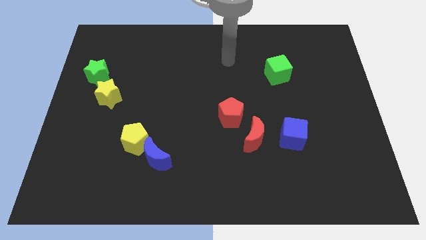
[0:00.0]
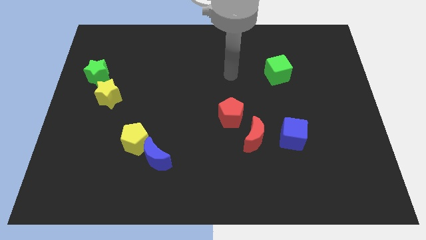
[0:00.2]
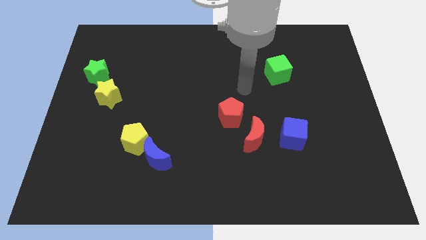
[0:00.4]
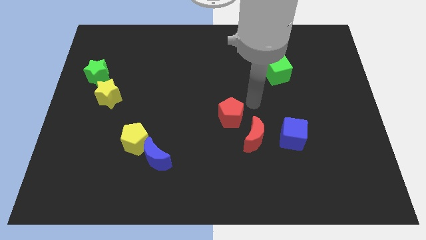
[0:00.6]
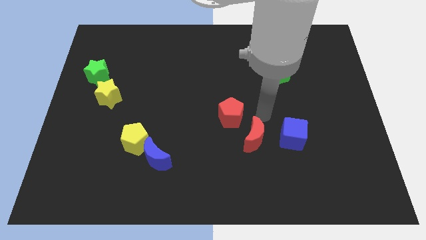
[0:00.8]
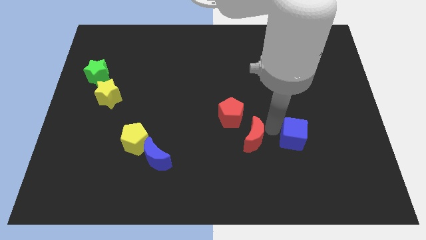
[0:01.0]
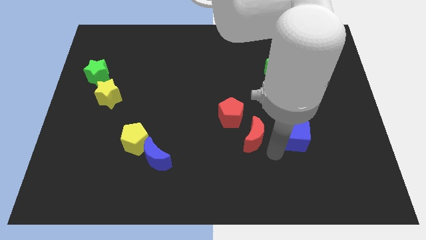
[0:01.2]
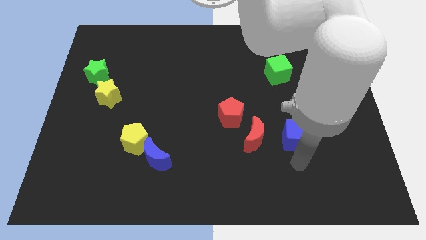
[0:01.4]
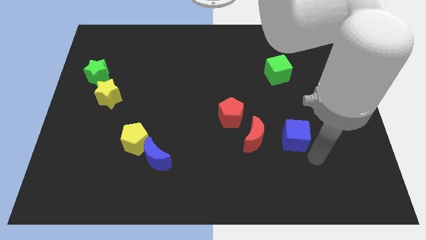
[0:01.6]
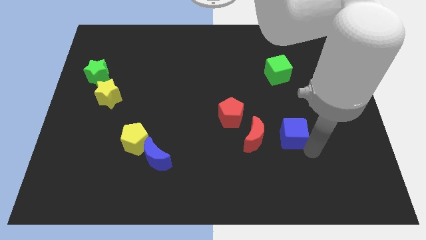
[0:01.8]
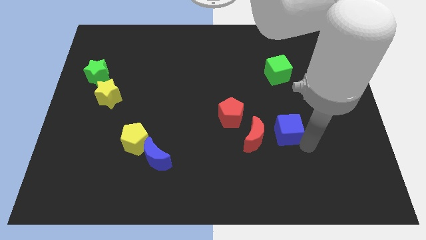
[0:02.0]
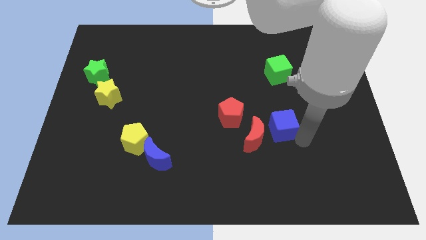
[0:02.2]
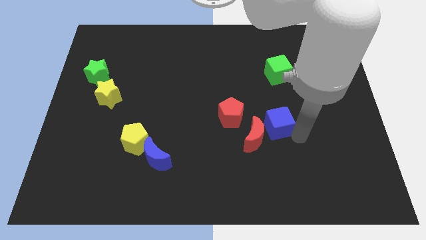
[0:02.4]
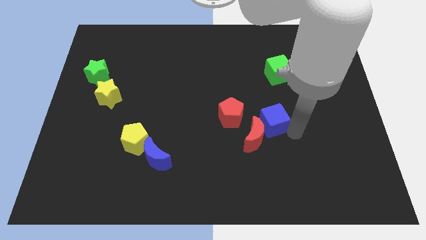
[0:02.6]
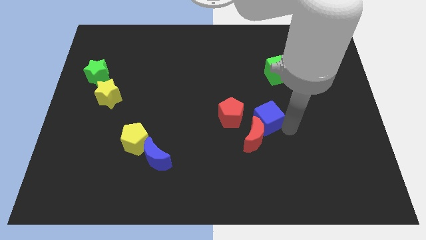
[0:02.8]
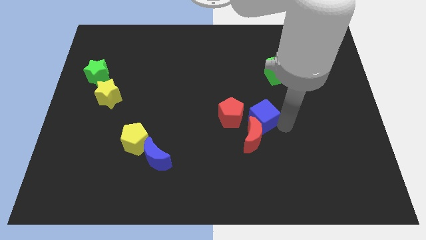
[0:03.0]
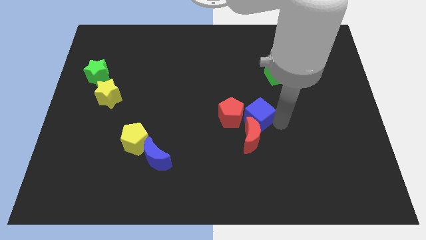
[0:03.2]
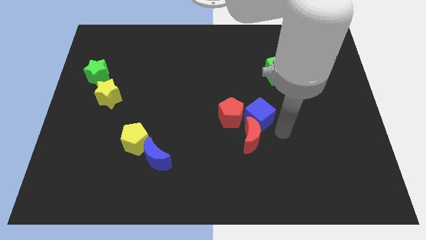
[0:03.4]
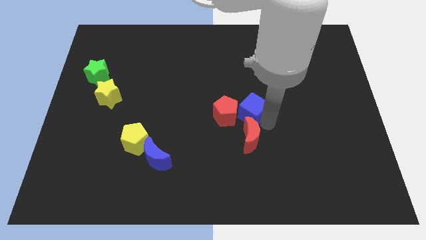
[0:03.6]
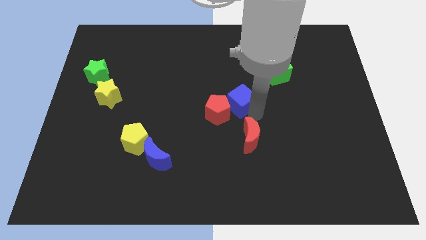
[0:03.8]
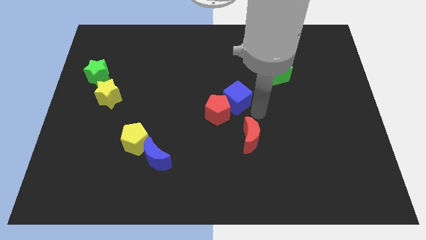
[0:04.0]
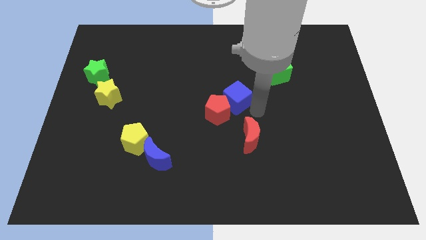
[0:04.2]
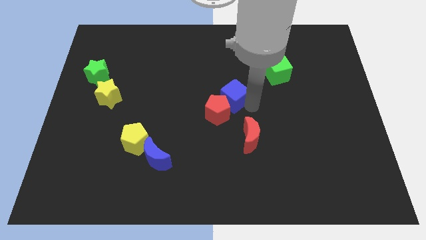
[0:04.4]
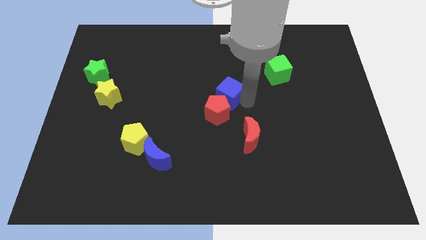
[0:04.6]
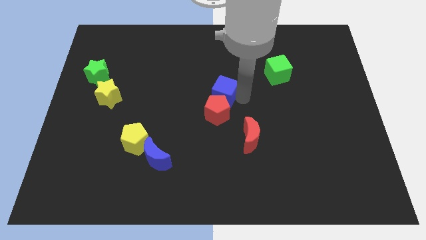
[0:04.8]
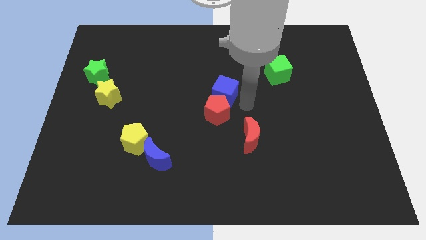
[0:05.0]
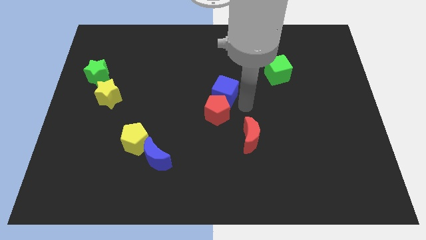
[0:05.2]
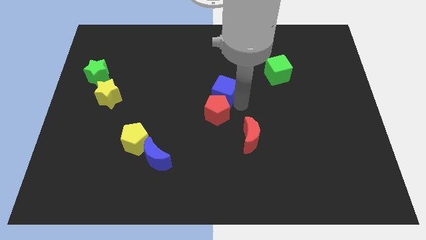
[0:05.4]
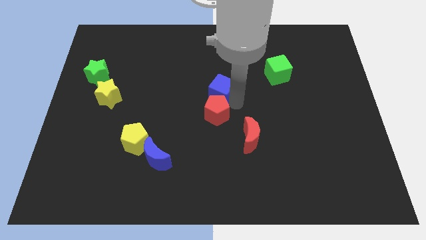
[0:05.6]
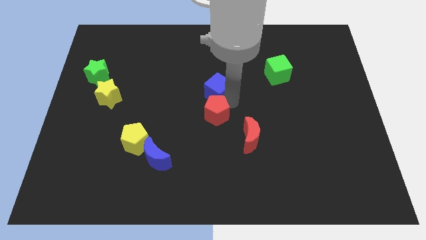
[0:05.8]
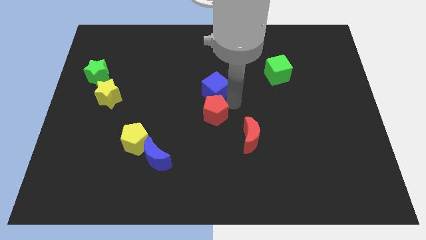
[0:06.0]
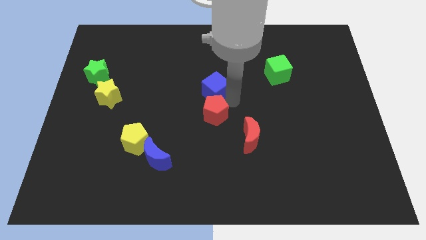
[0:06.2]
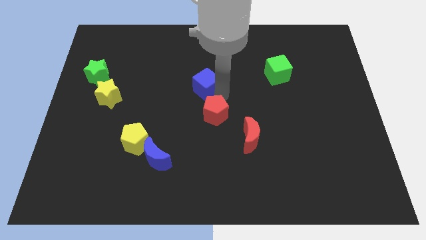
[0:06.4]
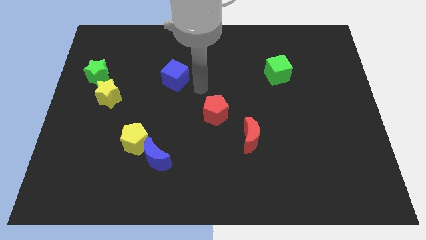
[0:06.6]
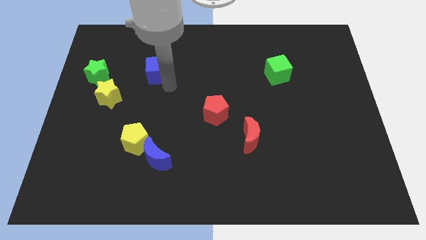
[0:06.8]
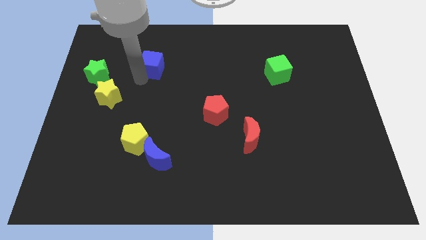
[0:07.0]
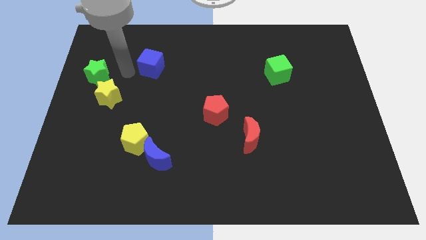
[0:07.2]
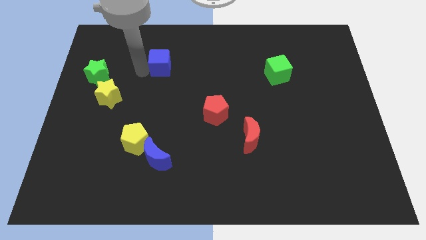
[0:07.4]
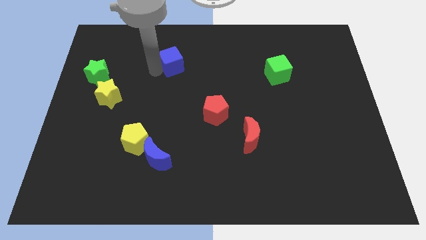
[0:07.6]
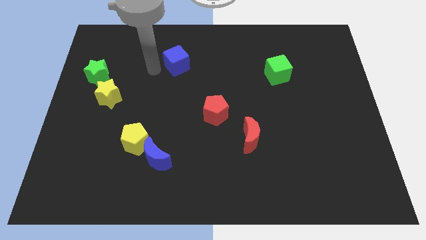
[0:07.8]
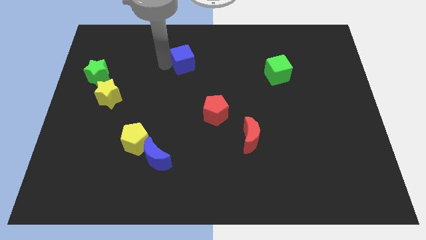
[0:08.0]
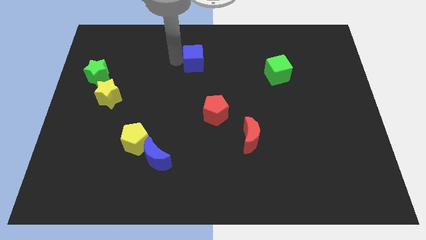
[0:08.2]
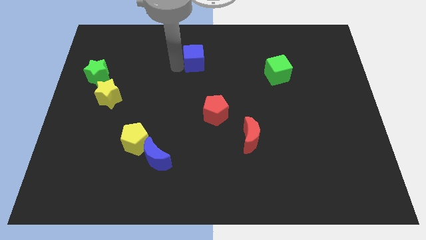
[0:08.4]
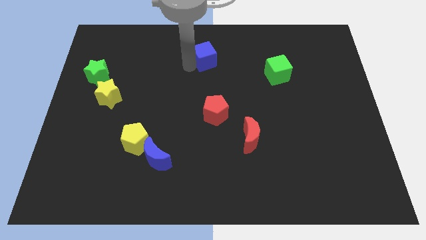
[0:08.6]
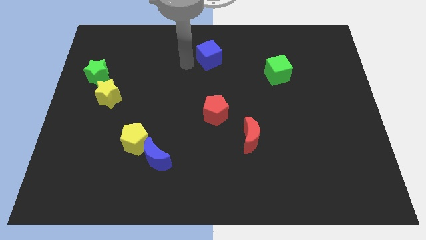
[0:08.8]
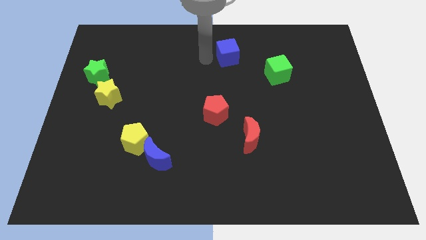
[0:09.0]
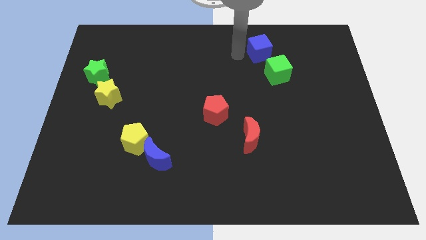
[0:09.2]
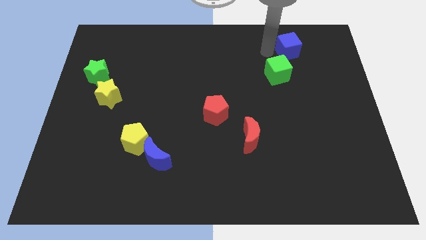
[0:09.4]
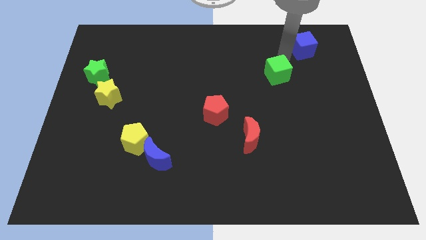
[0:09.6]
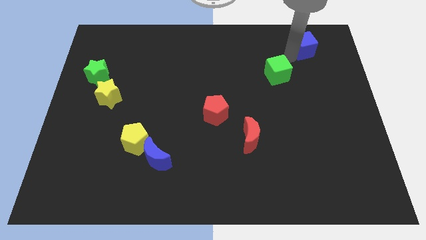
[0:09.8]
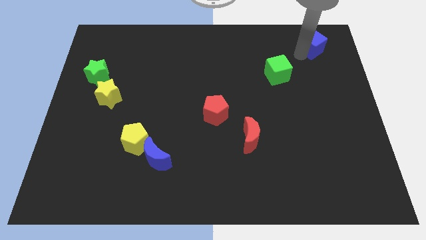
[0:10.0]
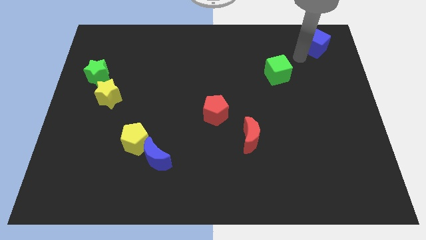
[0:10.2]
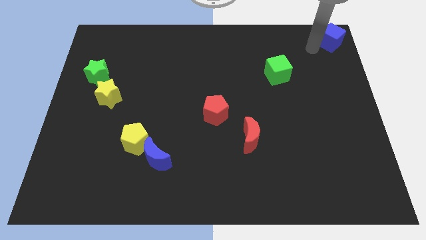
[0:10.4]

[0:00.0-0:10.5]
move the blue cube to the top right corner

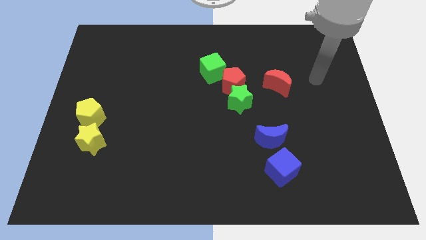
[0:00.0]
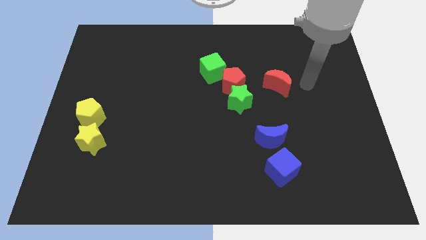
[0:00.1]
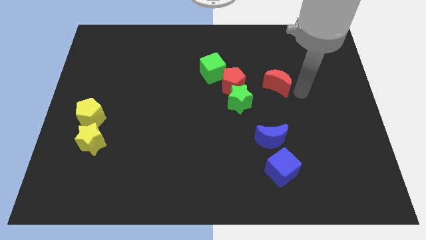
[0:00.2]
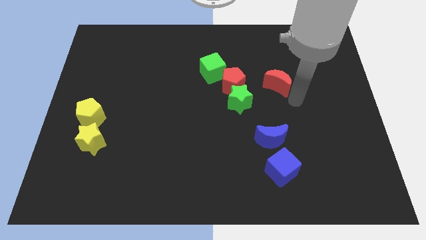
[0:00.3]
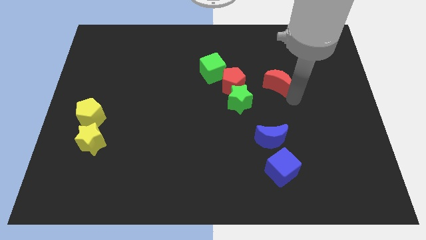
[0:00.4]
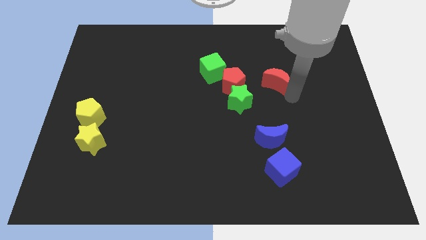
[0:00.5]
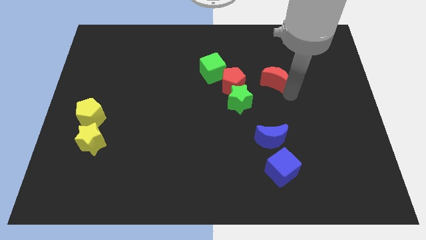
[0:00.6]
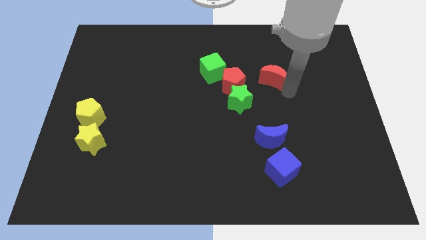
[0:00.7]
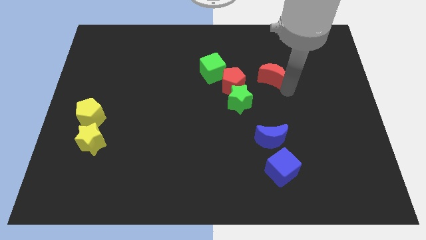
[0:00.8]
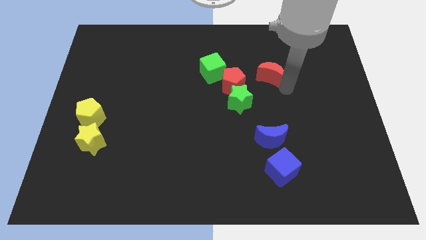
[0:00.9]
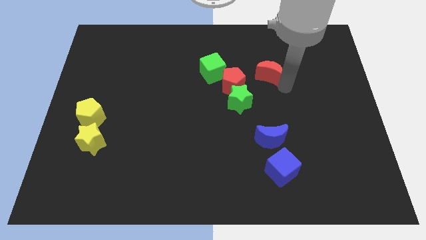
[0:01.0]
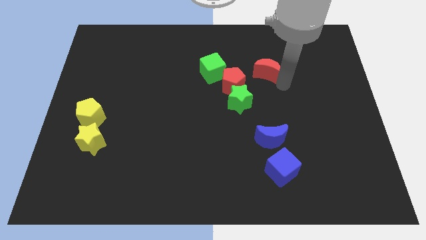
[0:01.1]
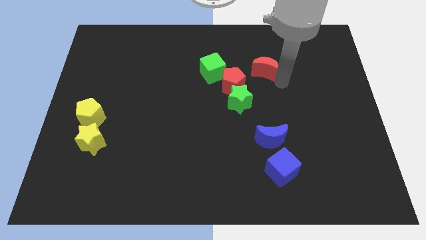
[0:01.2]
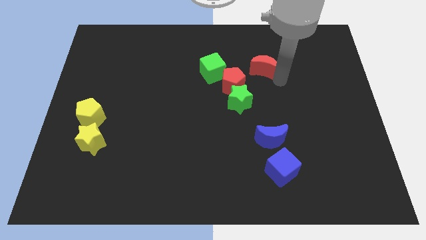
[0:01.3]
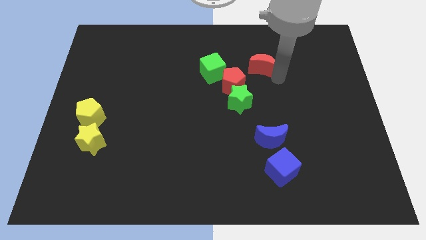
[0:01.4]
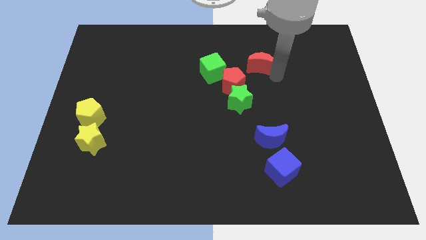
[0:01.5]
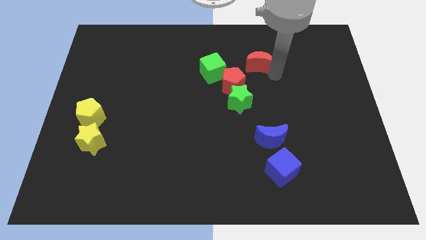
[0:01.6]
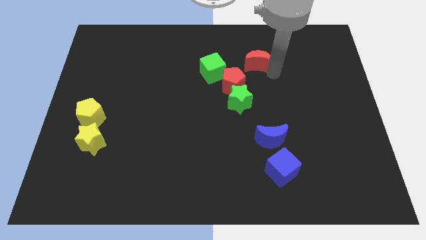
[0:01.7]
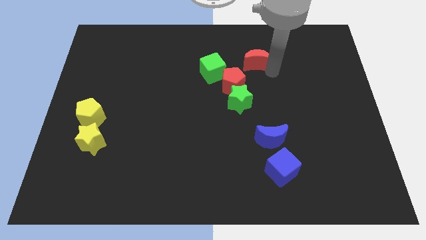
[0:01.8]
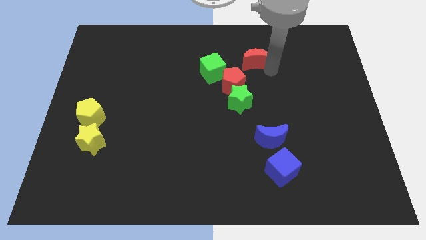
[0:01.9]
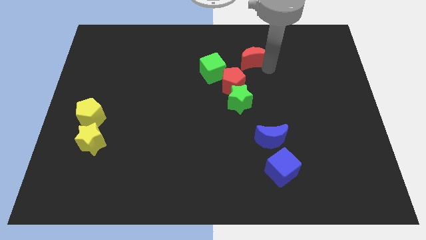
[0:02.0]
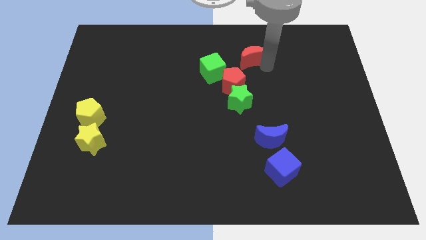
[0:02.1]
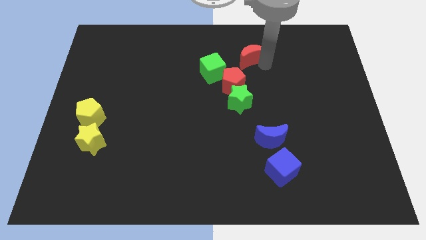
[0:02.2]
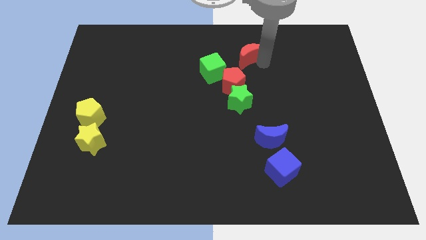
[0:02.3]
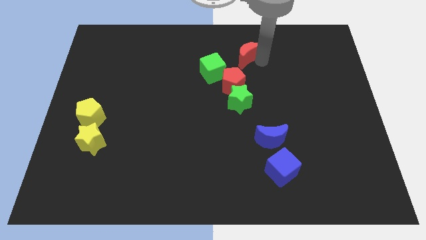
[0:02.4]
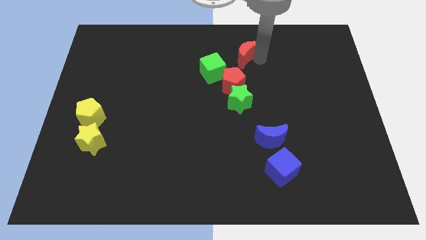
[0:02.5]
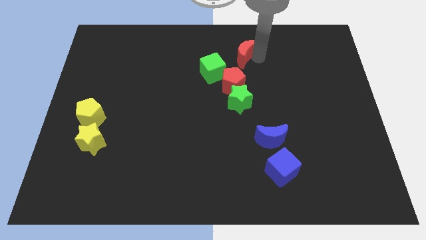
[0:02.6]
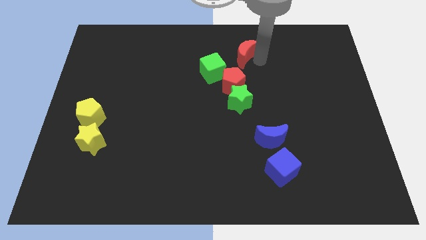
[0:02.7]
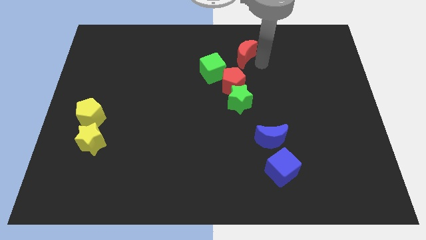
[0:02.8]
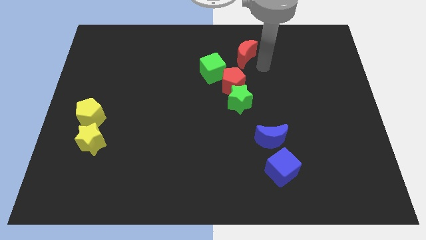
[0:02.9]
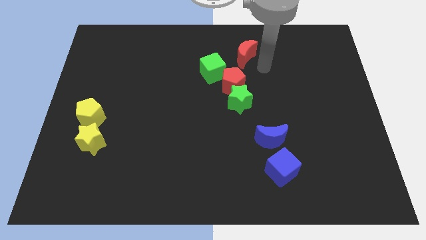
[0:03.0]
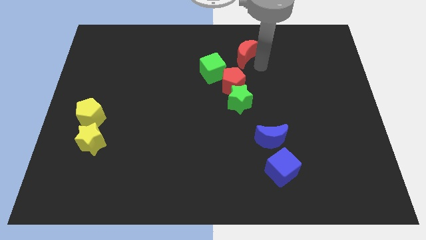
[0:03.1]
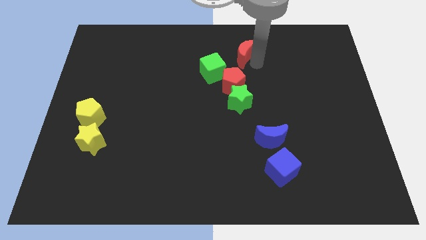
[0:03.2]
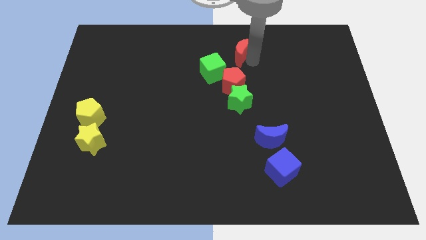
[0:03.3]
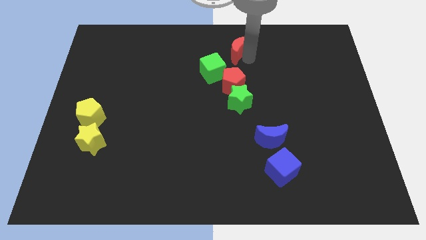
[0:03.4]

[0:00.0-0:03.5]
push the red moon to the towards your base
